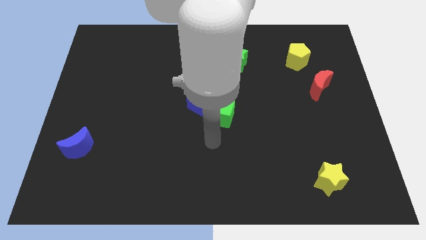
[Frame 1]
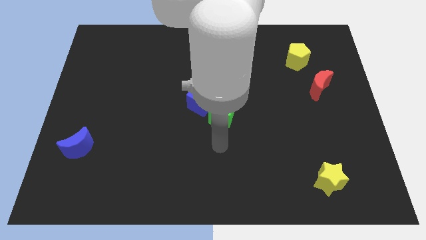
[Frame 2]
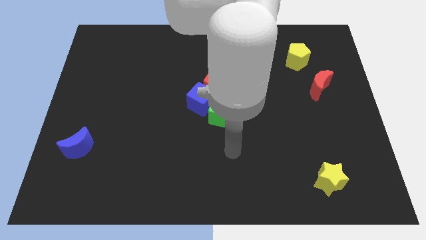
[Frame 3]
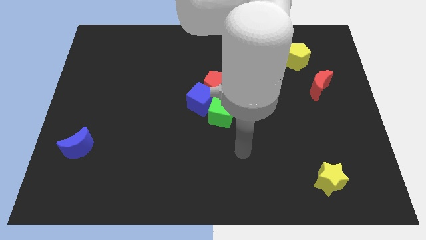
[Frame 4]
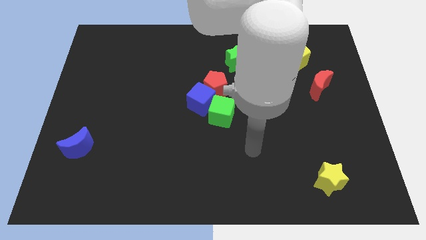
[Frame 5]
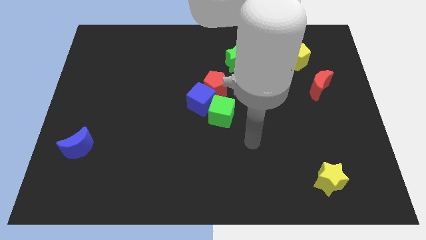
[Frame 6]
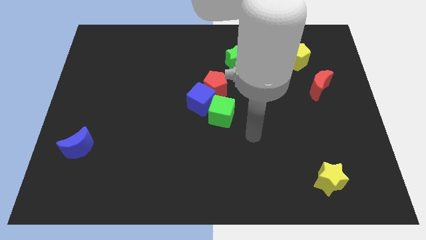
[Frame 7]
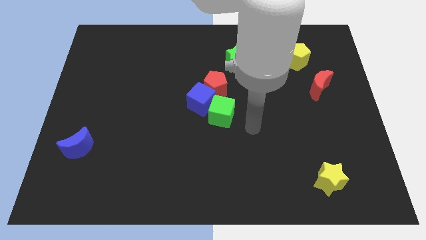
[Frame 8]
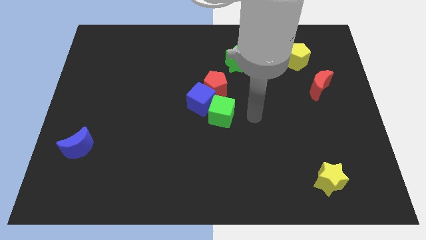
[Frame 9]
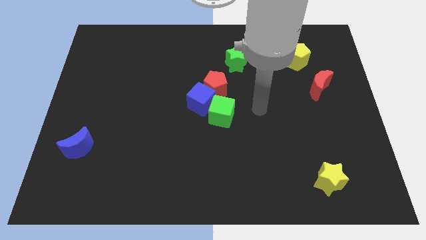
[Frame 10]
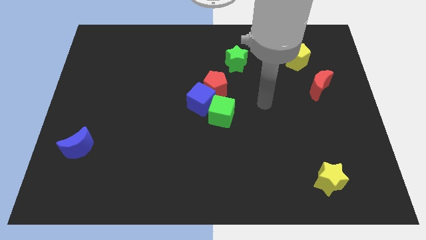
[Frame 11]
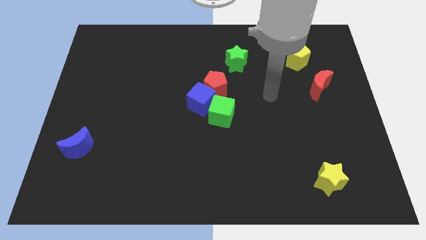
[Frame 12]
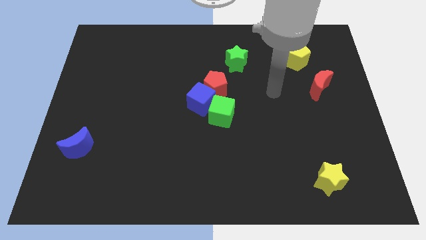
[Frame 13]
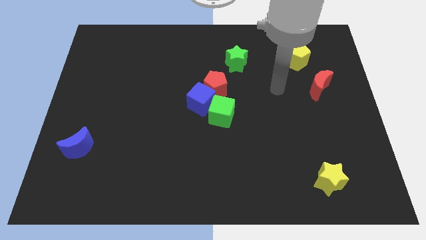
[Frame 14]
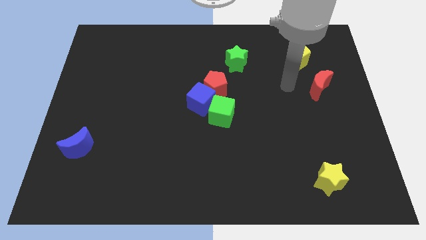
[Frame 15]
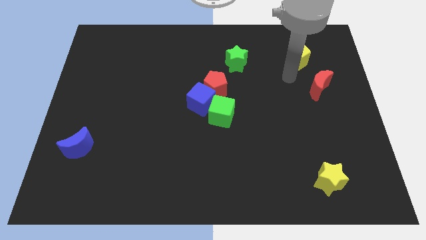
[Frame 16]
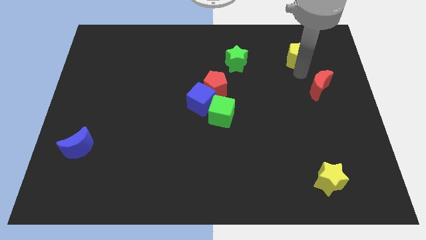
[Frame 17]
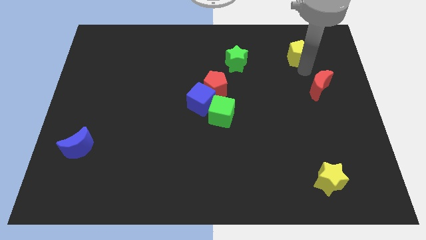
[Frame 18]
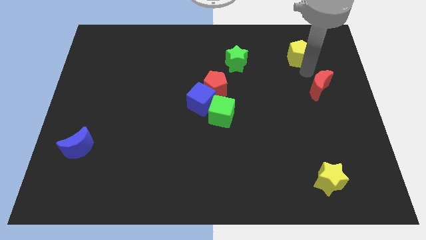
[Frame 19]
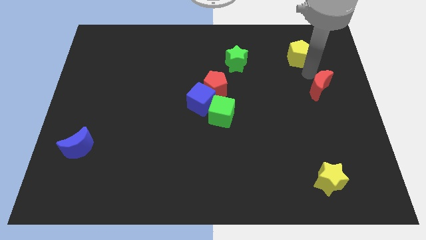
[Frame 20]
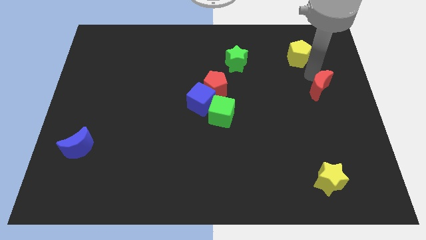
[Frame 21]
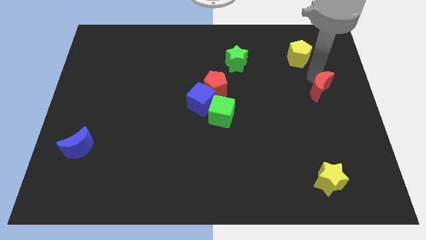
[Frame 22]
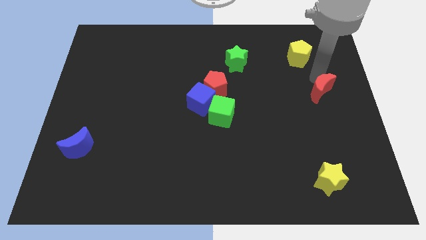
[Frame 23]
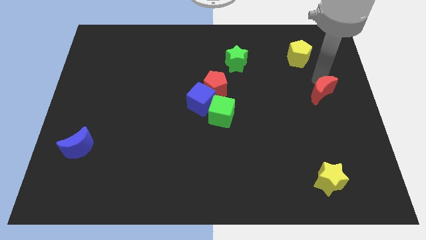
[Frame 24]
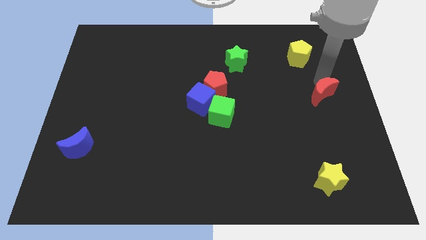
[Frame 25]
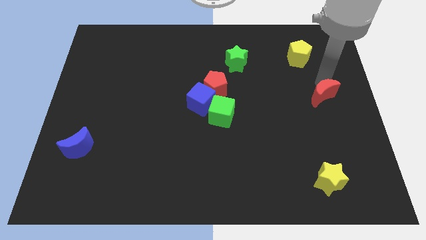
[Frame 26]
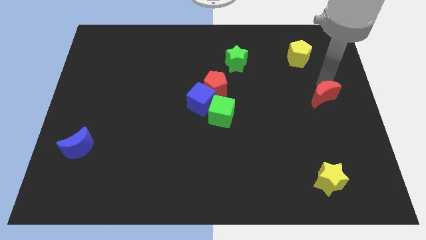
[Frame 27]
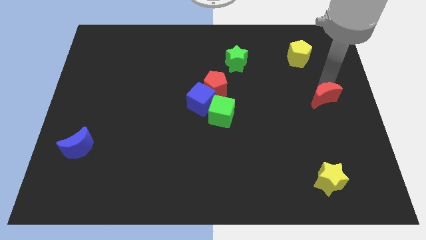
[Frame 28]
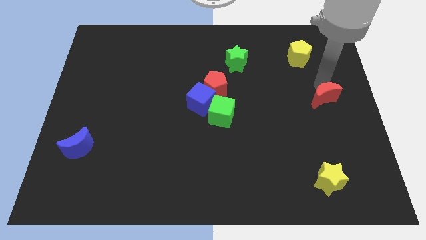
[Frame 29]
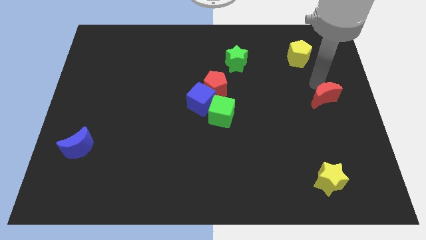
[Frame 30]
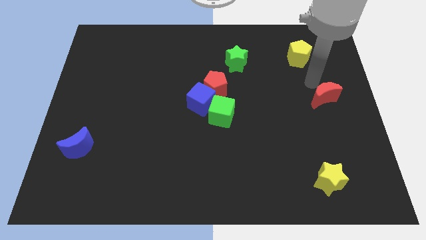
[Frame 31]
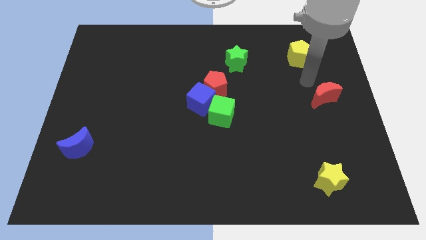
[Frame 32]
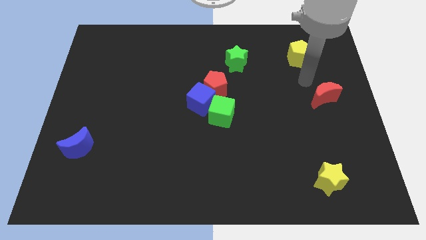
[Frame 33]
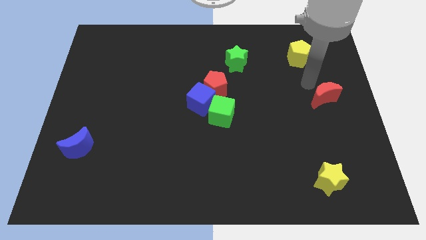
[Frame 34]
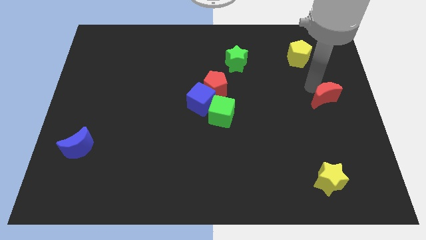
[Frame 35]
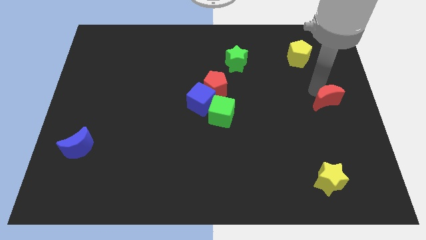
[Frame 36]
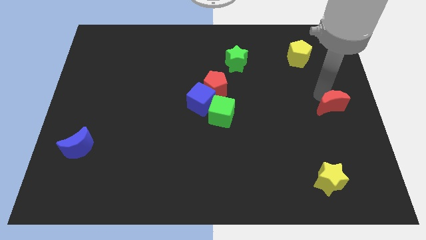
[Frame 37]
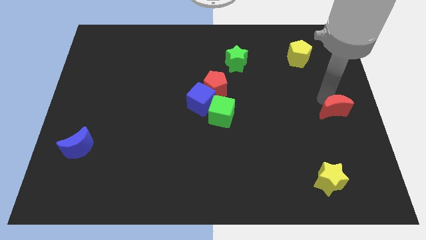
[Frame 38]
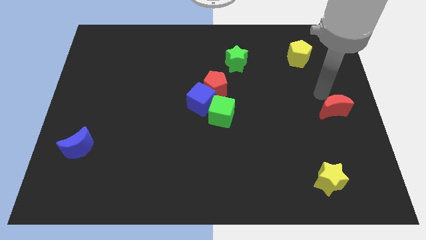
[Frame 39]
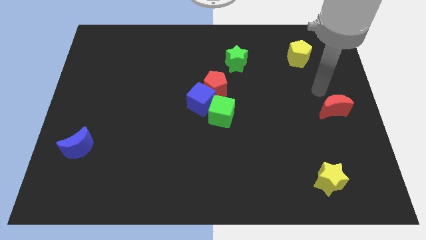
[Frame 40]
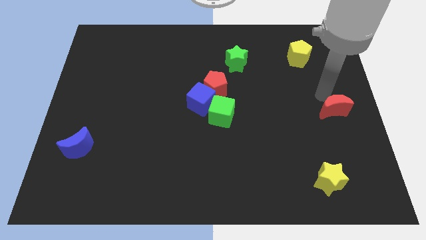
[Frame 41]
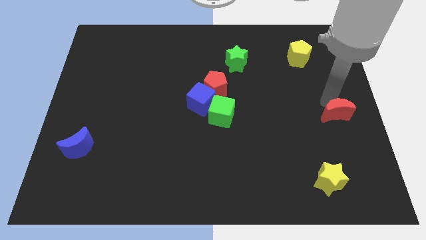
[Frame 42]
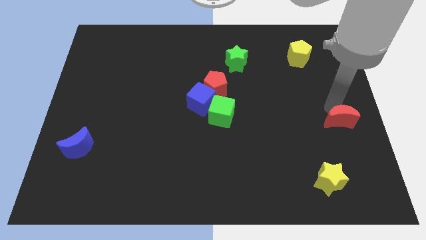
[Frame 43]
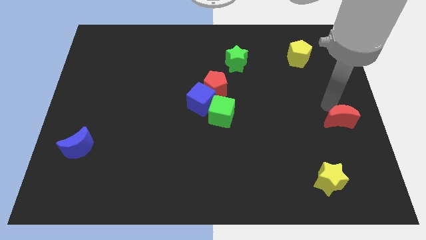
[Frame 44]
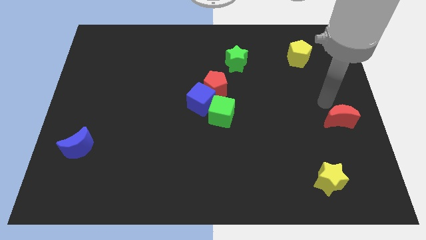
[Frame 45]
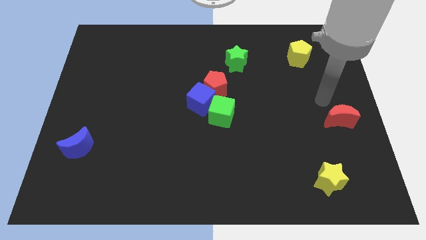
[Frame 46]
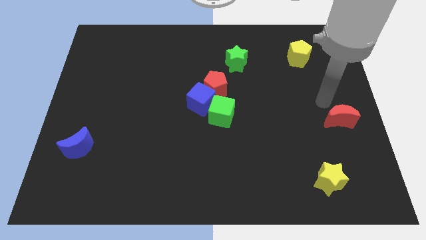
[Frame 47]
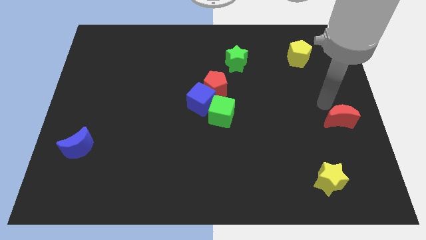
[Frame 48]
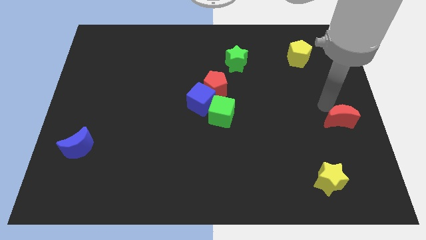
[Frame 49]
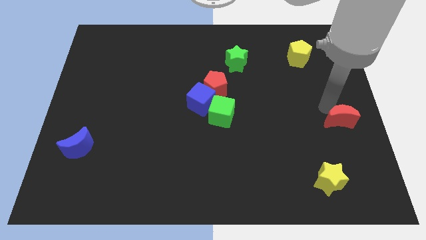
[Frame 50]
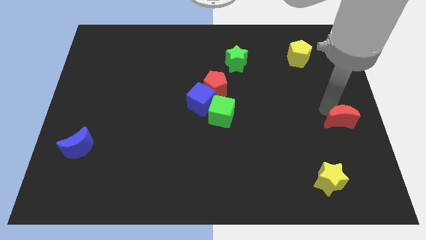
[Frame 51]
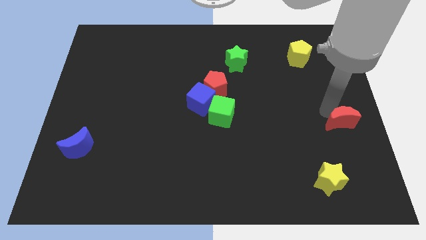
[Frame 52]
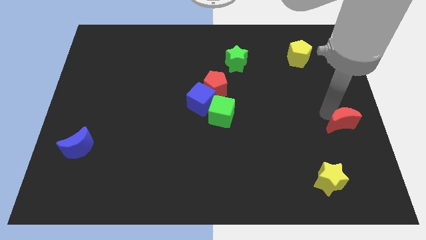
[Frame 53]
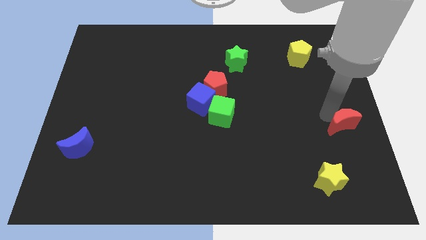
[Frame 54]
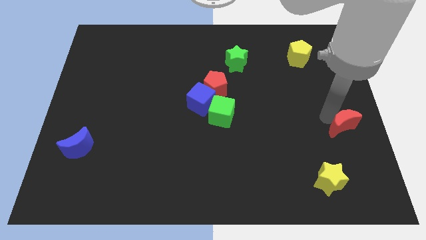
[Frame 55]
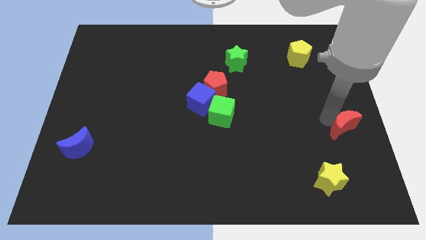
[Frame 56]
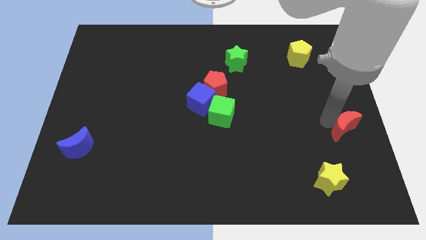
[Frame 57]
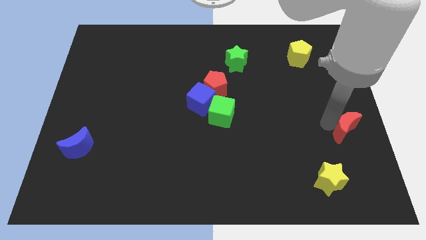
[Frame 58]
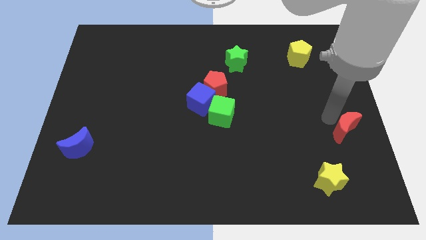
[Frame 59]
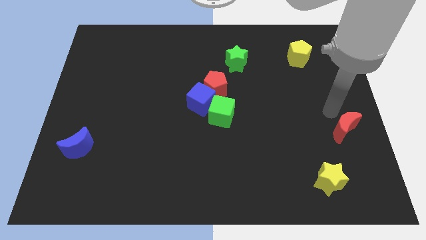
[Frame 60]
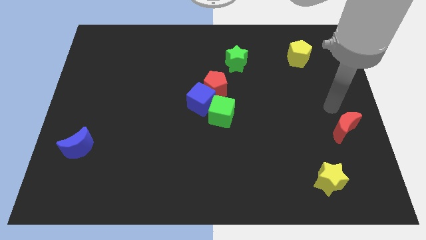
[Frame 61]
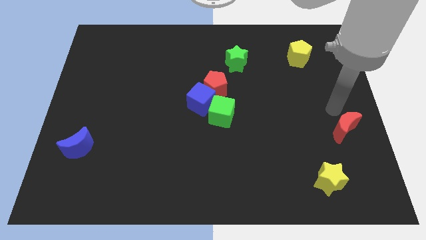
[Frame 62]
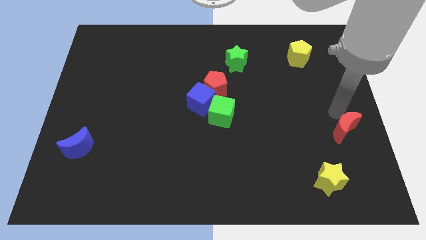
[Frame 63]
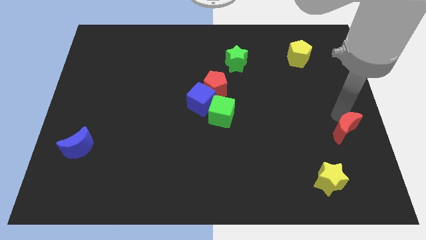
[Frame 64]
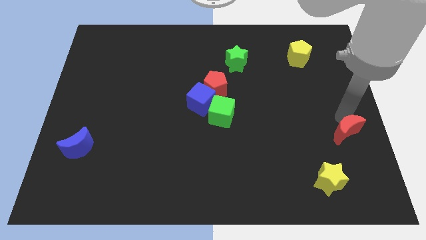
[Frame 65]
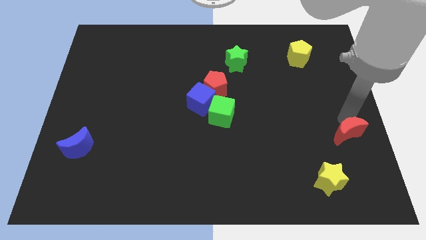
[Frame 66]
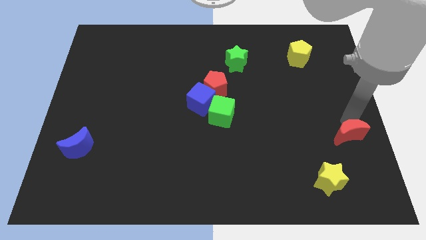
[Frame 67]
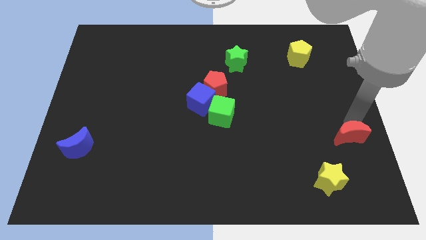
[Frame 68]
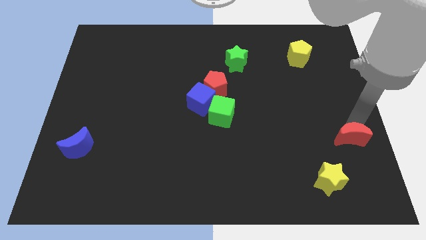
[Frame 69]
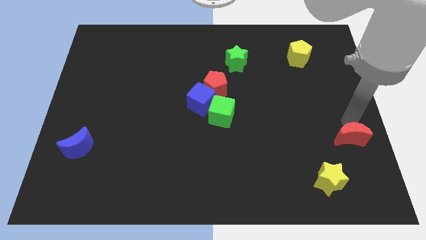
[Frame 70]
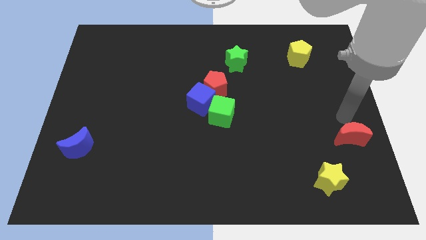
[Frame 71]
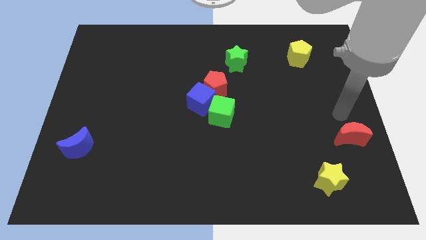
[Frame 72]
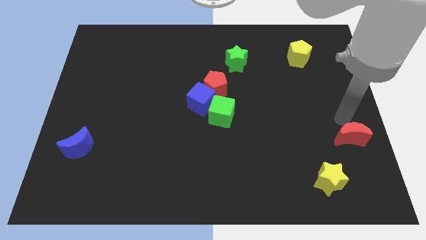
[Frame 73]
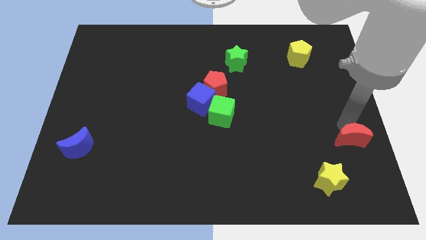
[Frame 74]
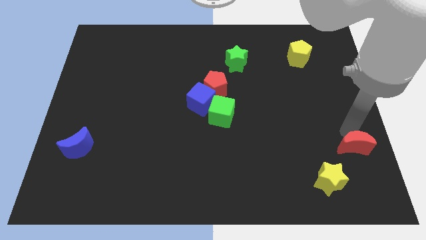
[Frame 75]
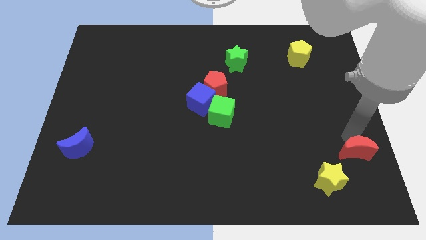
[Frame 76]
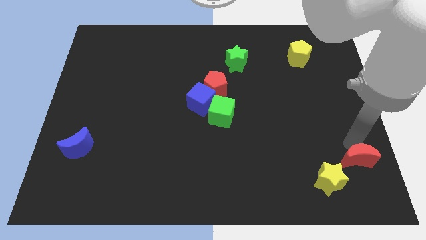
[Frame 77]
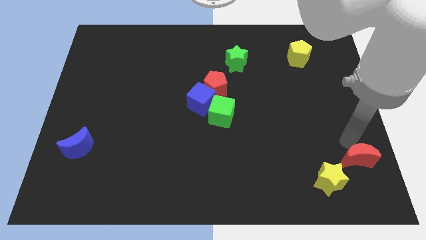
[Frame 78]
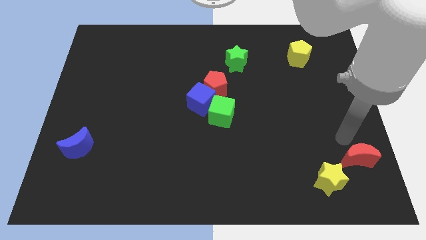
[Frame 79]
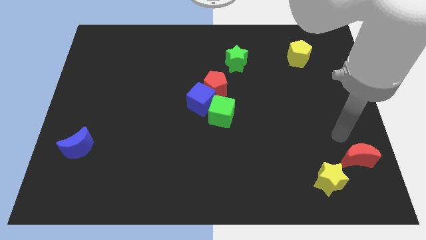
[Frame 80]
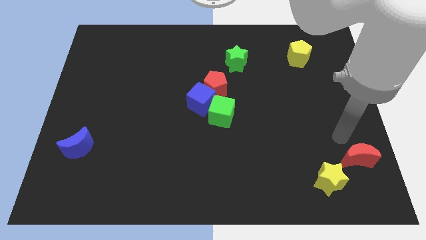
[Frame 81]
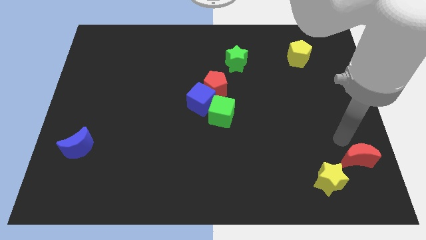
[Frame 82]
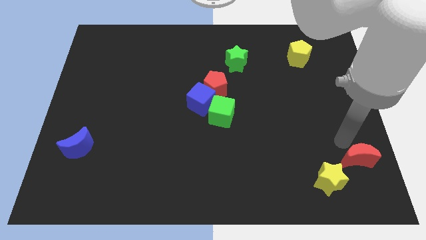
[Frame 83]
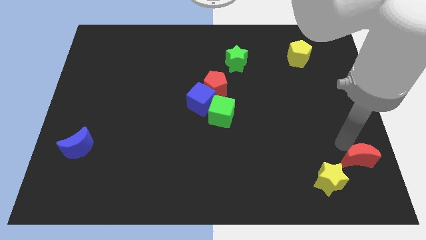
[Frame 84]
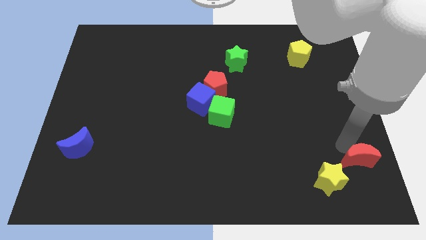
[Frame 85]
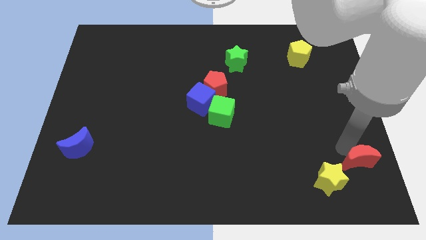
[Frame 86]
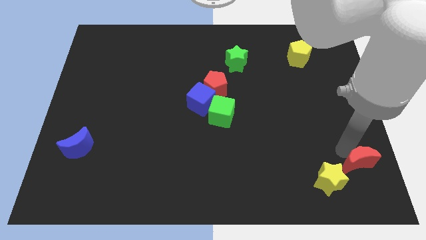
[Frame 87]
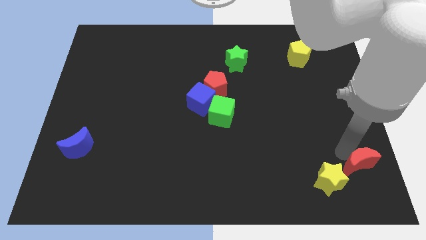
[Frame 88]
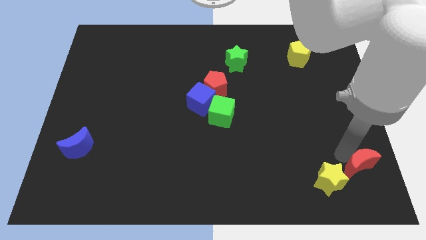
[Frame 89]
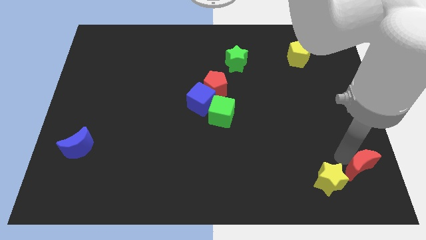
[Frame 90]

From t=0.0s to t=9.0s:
slide the red moon to the lower right corner
